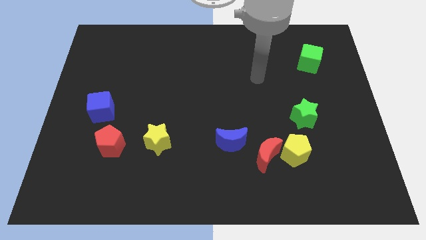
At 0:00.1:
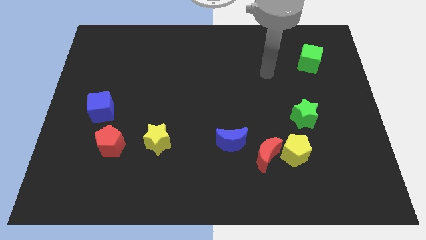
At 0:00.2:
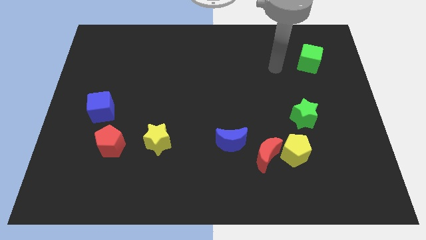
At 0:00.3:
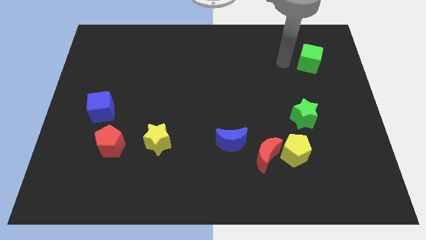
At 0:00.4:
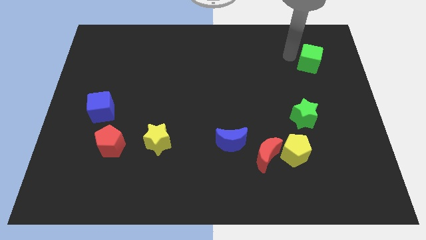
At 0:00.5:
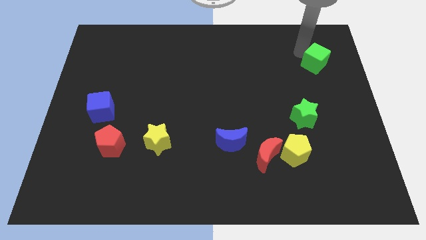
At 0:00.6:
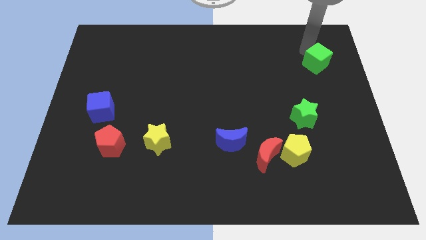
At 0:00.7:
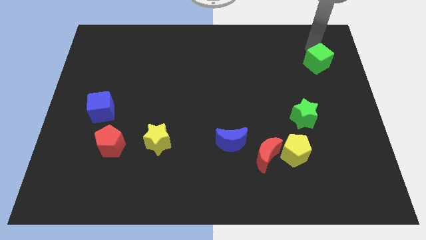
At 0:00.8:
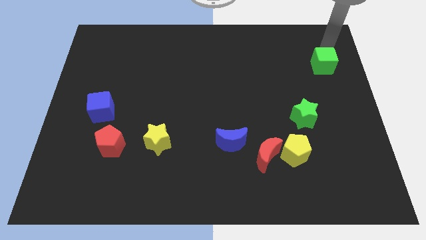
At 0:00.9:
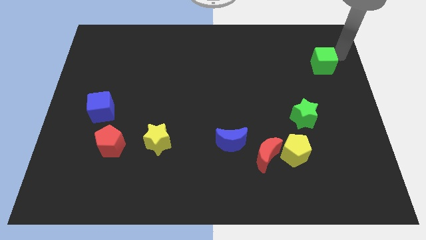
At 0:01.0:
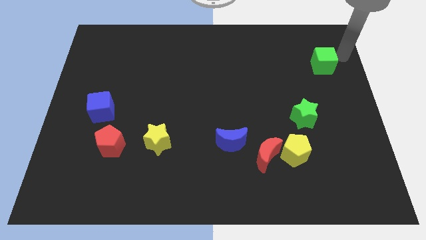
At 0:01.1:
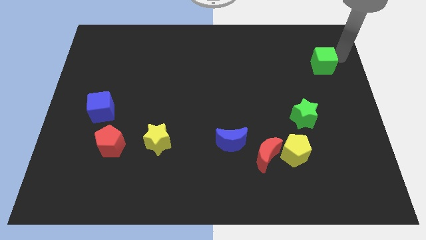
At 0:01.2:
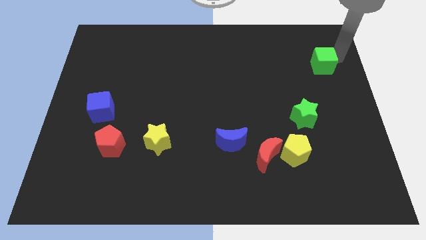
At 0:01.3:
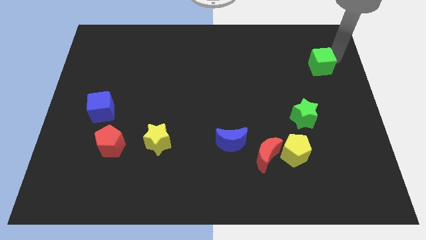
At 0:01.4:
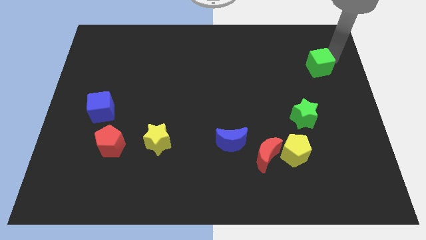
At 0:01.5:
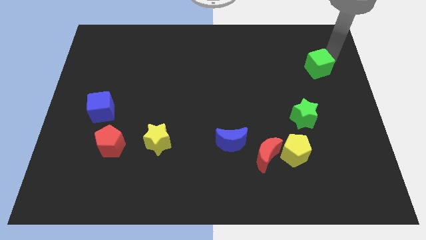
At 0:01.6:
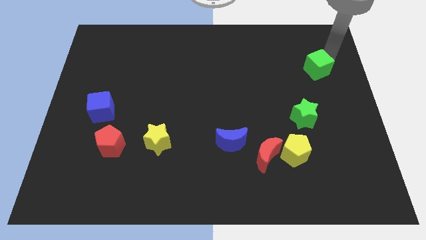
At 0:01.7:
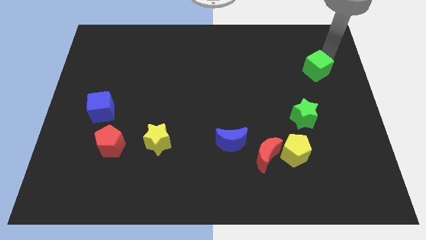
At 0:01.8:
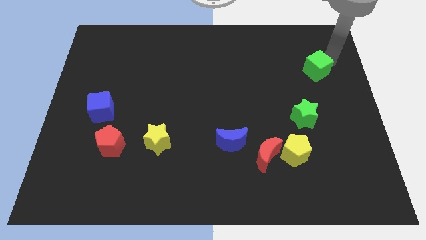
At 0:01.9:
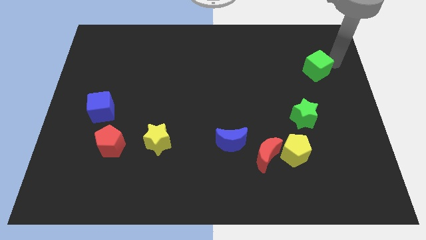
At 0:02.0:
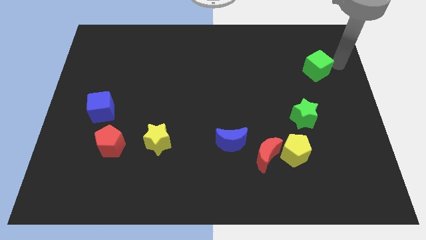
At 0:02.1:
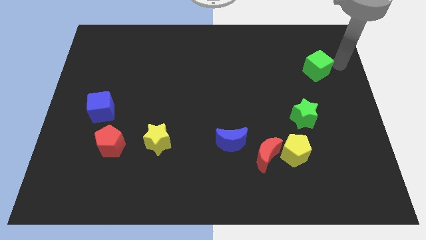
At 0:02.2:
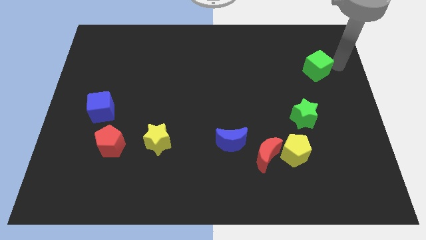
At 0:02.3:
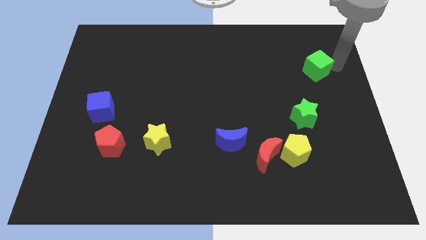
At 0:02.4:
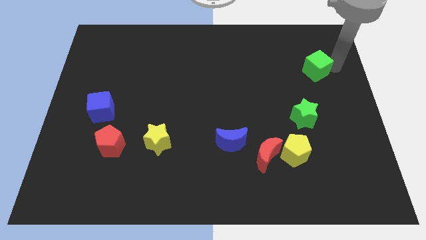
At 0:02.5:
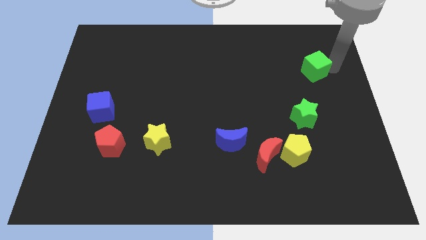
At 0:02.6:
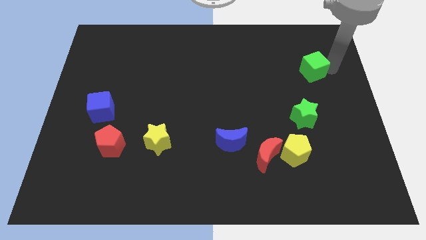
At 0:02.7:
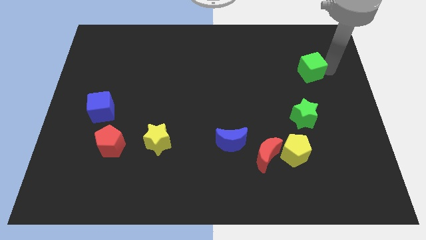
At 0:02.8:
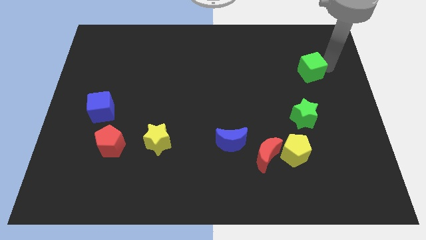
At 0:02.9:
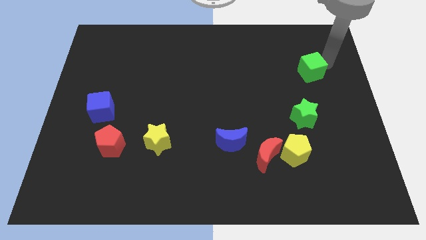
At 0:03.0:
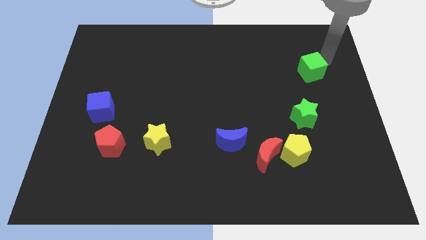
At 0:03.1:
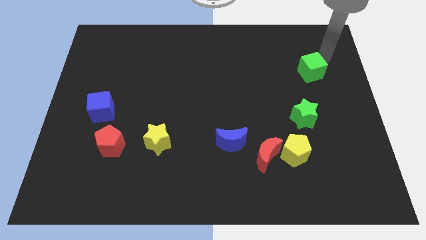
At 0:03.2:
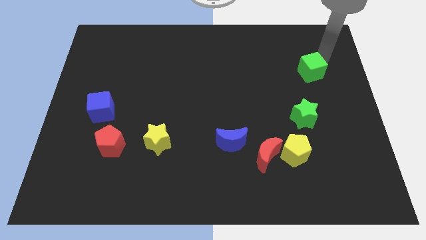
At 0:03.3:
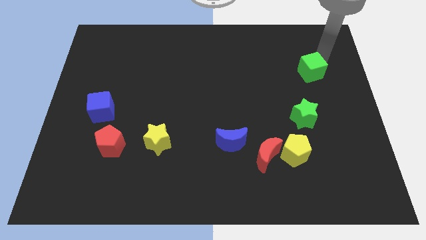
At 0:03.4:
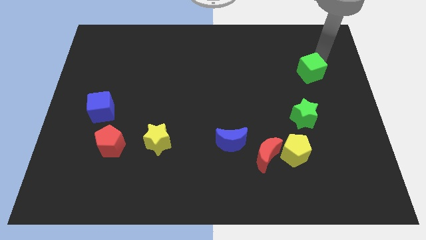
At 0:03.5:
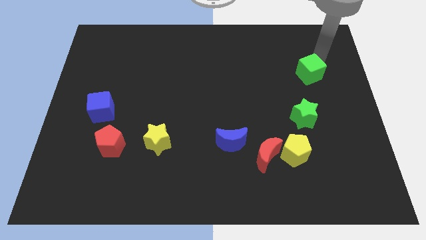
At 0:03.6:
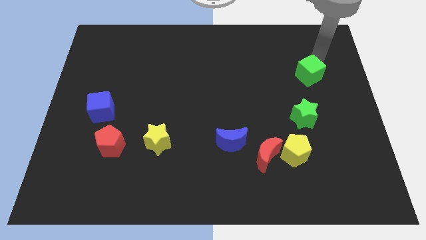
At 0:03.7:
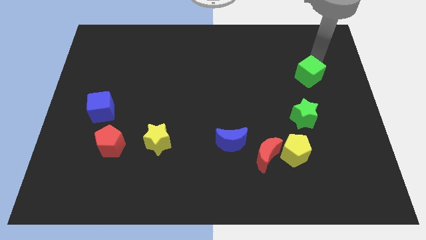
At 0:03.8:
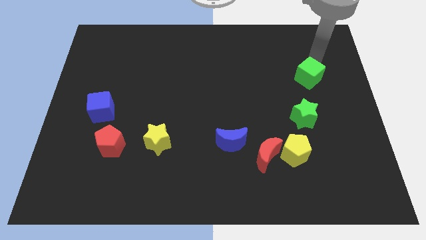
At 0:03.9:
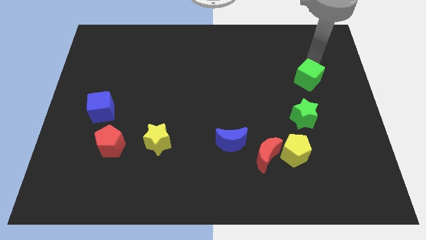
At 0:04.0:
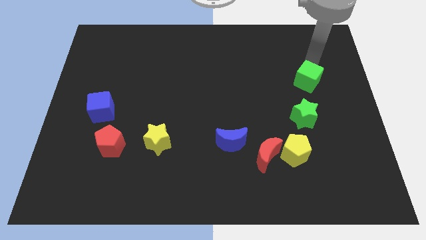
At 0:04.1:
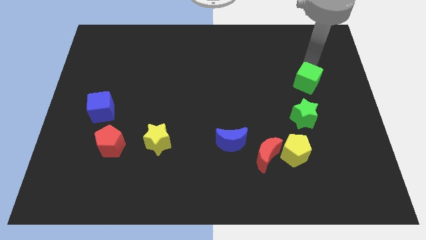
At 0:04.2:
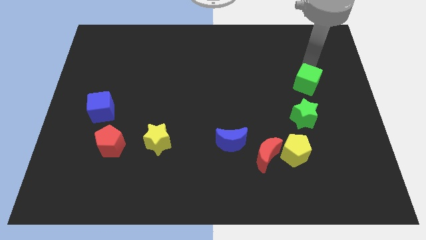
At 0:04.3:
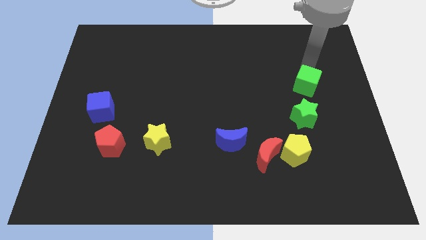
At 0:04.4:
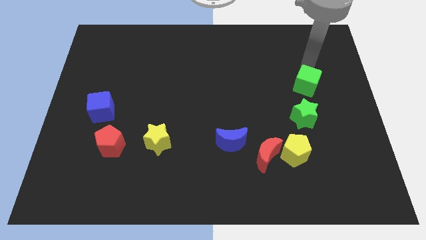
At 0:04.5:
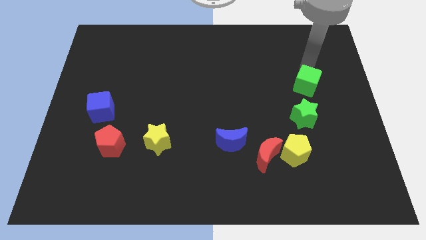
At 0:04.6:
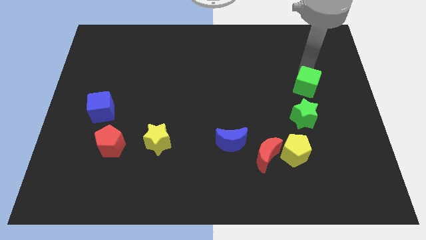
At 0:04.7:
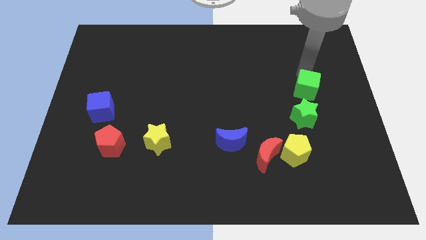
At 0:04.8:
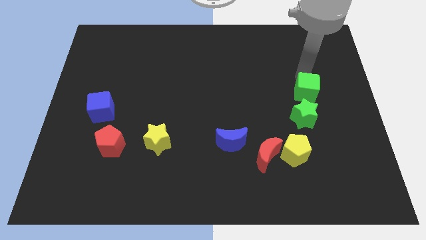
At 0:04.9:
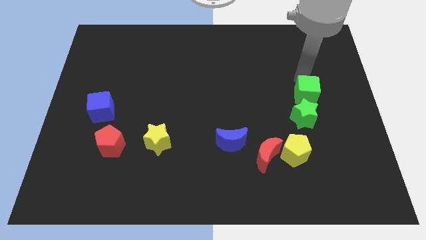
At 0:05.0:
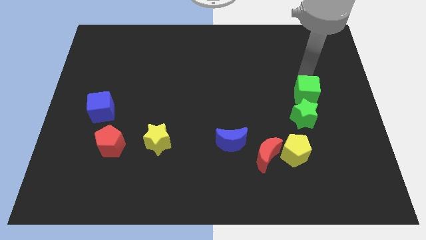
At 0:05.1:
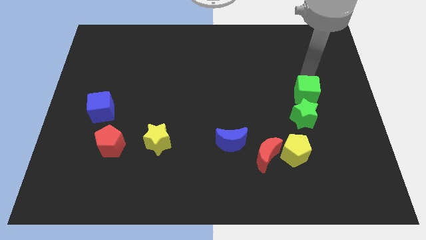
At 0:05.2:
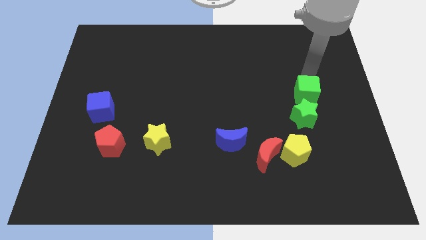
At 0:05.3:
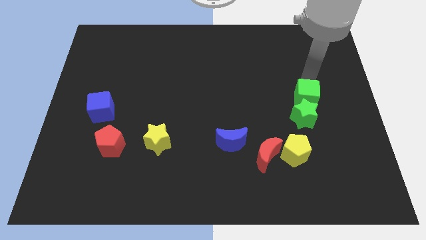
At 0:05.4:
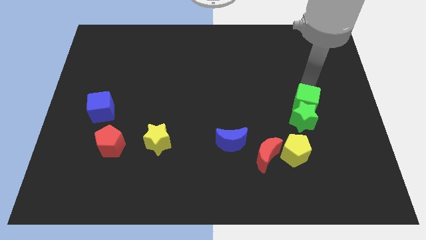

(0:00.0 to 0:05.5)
put the green cube next to the green star

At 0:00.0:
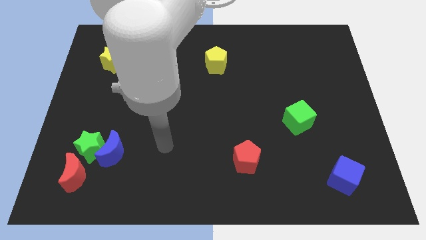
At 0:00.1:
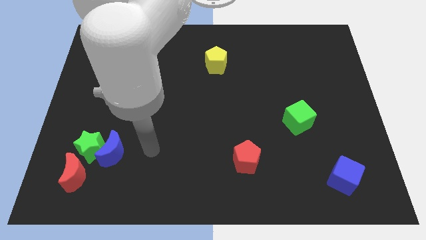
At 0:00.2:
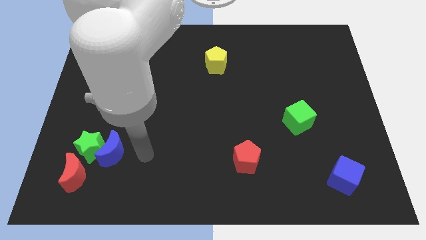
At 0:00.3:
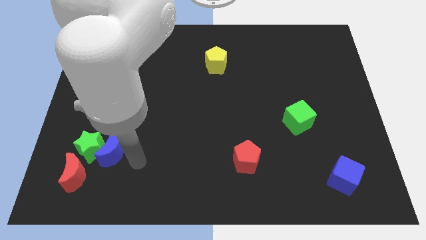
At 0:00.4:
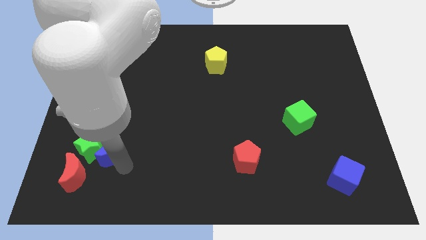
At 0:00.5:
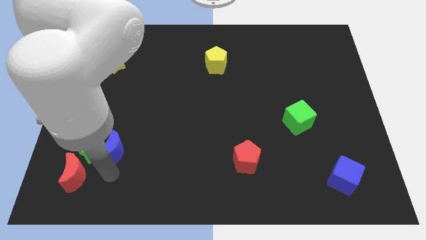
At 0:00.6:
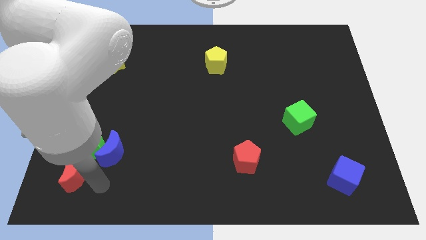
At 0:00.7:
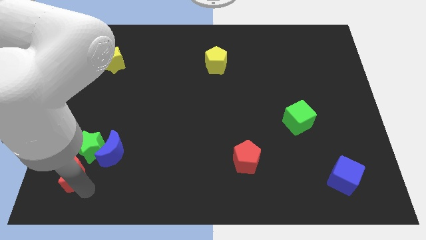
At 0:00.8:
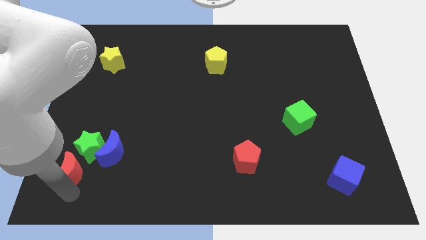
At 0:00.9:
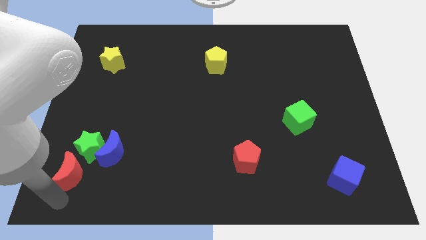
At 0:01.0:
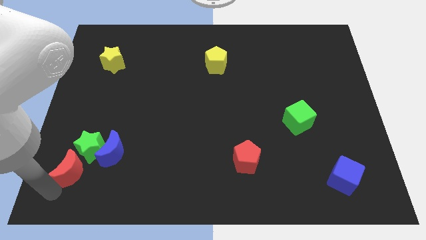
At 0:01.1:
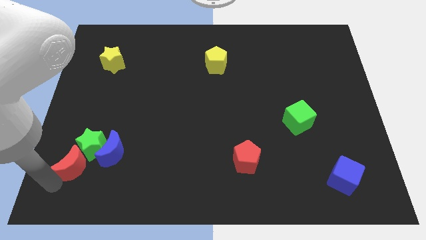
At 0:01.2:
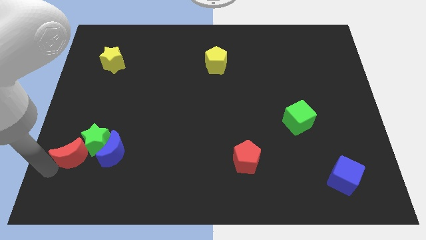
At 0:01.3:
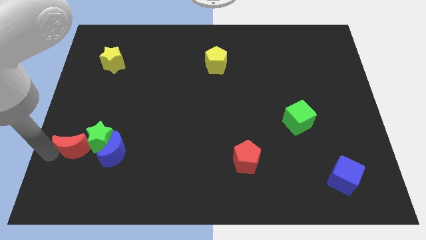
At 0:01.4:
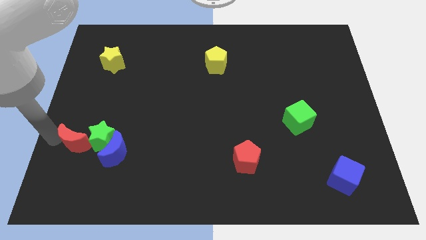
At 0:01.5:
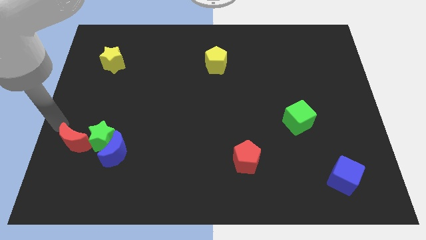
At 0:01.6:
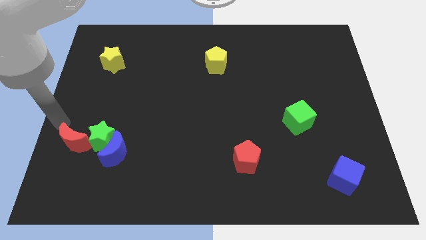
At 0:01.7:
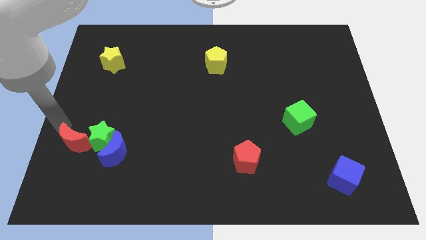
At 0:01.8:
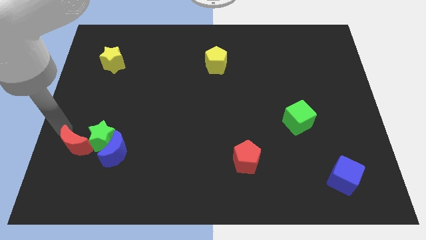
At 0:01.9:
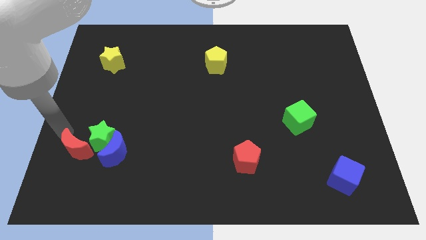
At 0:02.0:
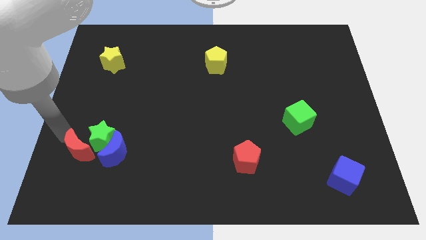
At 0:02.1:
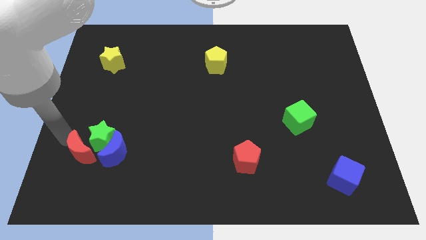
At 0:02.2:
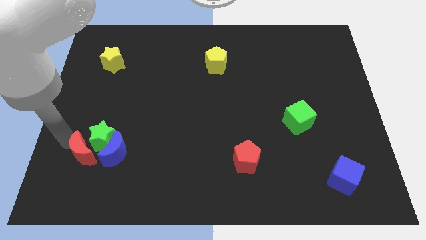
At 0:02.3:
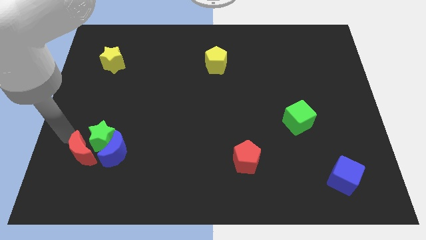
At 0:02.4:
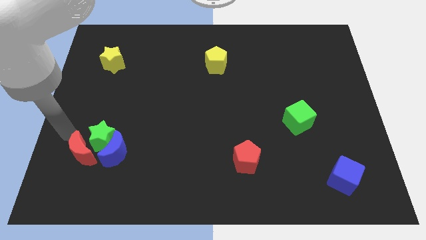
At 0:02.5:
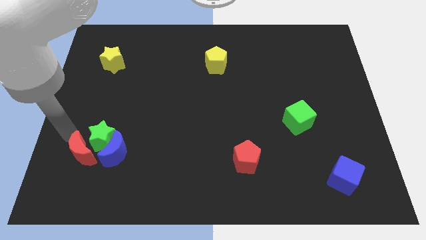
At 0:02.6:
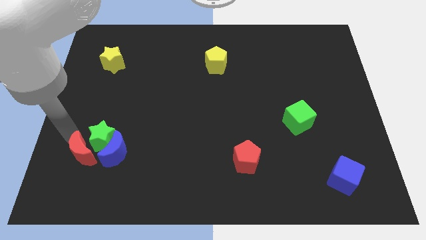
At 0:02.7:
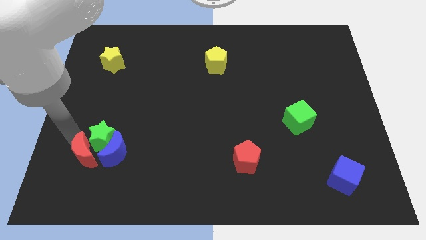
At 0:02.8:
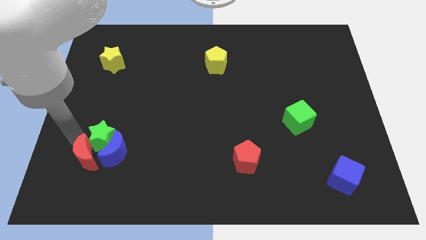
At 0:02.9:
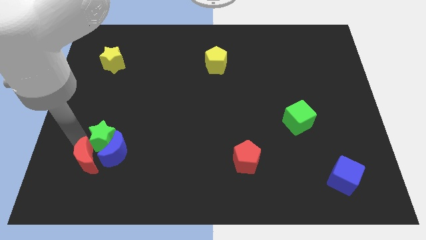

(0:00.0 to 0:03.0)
put the red moon towards the blue moon

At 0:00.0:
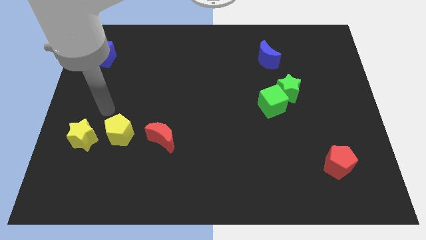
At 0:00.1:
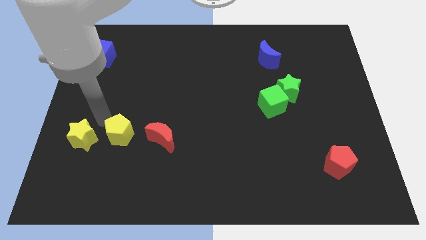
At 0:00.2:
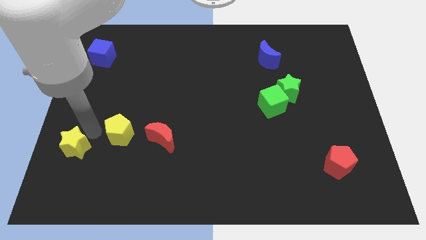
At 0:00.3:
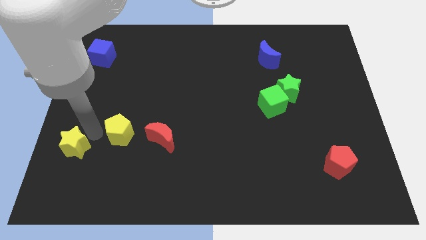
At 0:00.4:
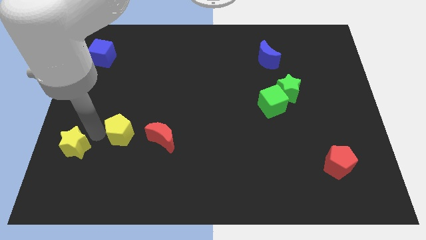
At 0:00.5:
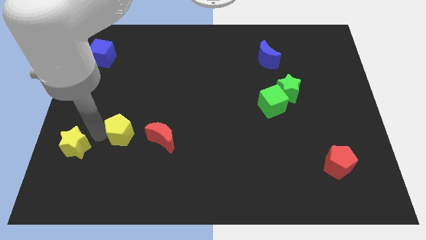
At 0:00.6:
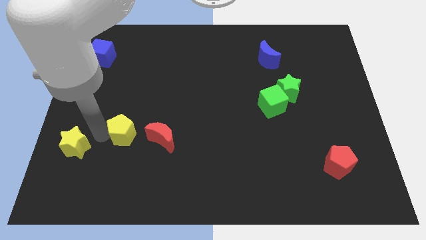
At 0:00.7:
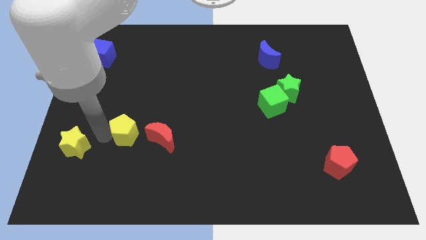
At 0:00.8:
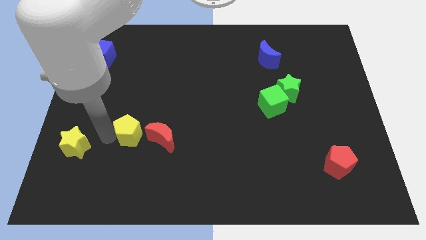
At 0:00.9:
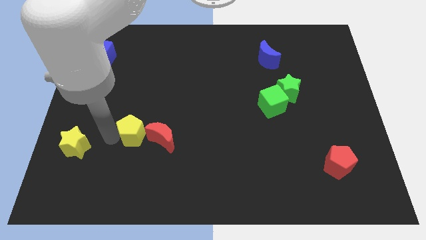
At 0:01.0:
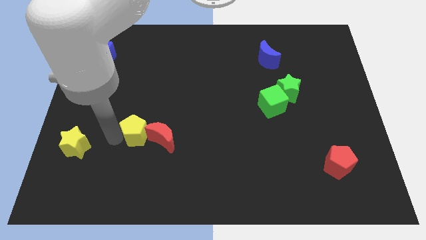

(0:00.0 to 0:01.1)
put the yellow pentagon towards the red moon
